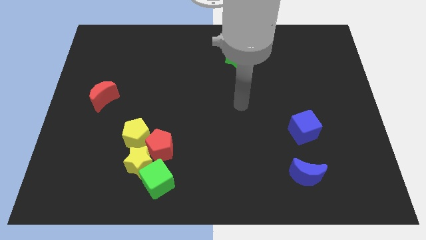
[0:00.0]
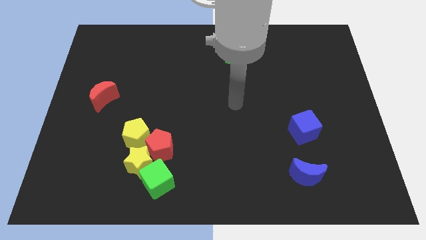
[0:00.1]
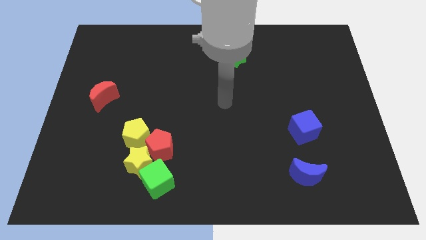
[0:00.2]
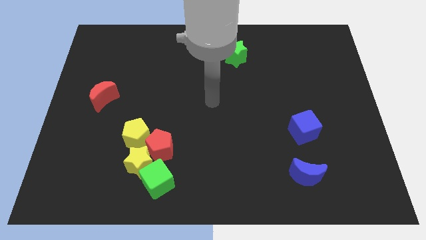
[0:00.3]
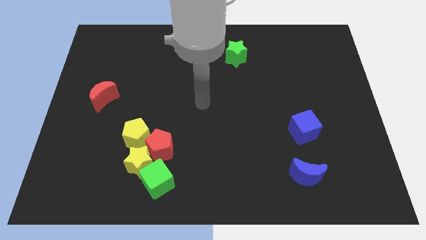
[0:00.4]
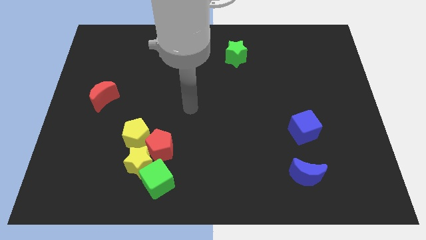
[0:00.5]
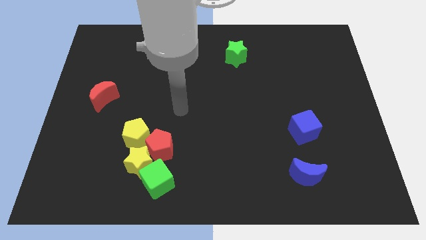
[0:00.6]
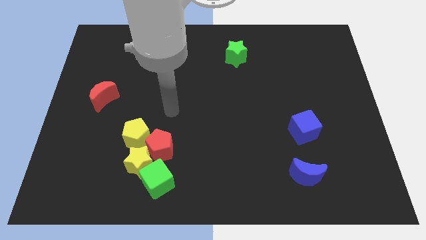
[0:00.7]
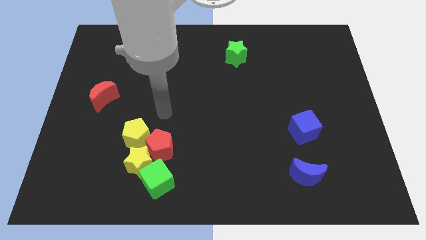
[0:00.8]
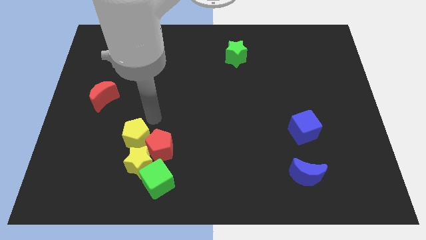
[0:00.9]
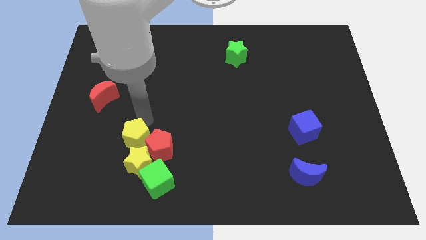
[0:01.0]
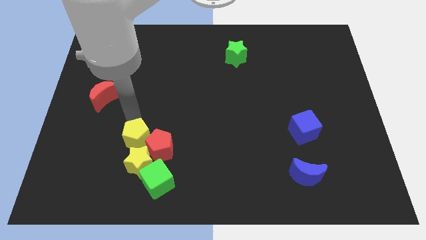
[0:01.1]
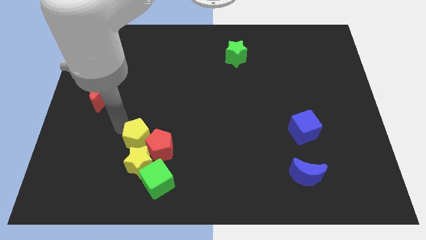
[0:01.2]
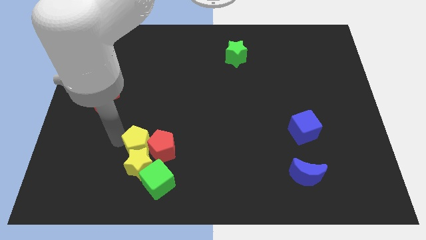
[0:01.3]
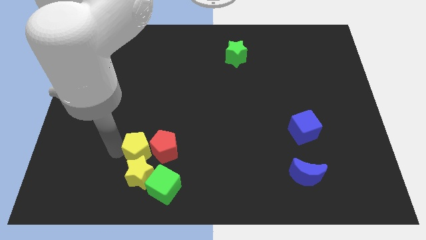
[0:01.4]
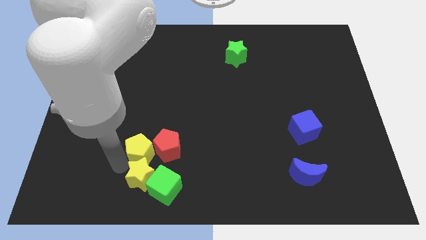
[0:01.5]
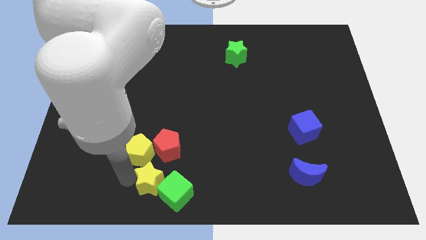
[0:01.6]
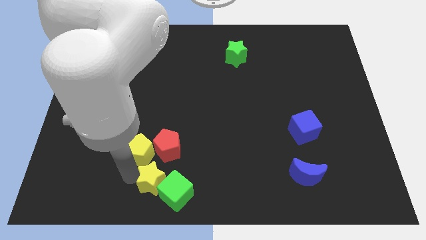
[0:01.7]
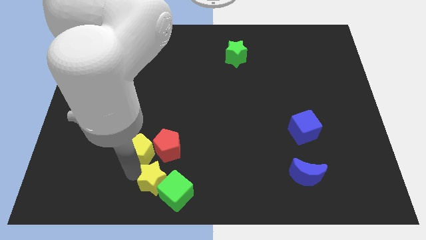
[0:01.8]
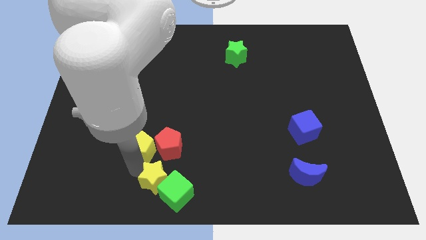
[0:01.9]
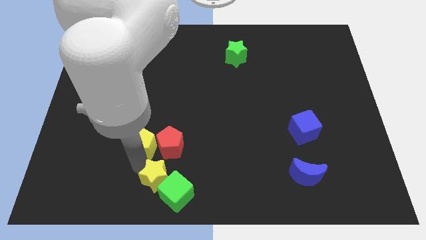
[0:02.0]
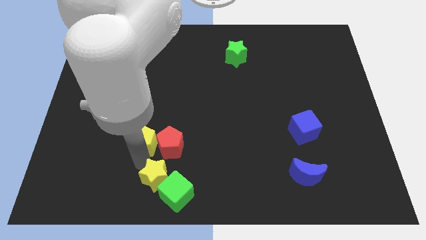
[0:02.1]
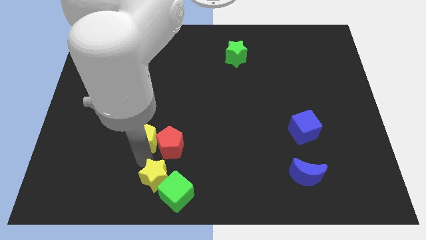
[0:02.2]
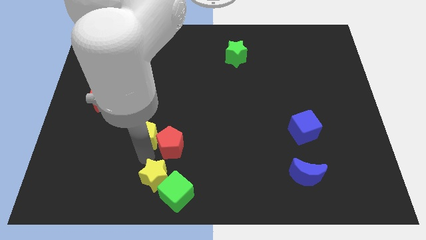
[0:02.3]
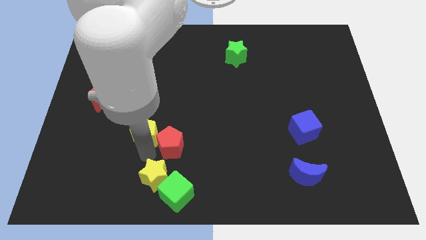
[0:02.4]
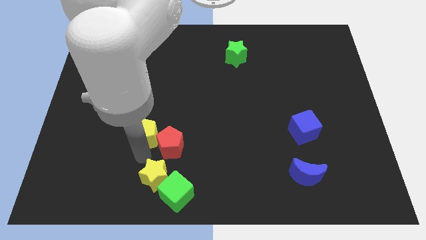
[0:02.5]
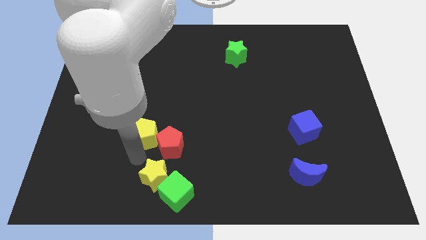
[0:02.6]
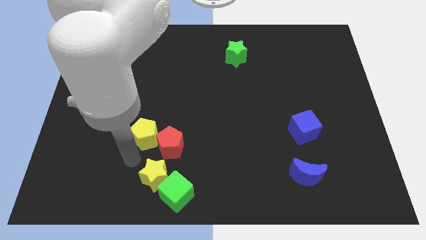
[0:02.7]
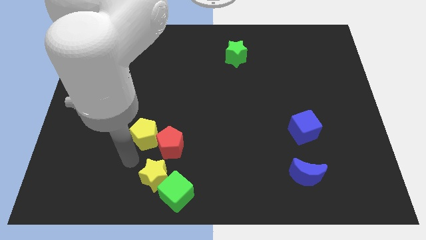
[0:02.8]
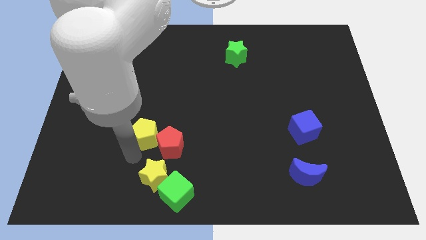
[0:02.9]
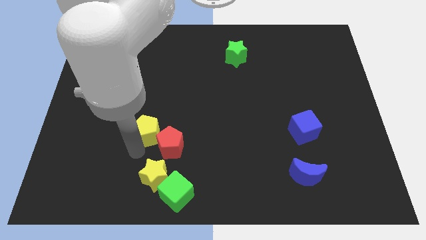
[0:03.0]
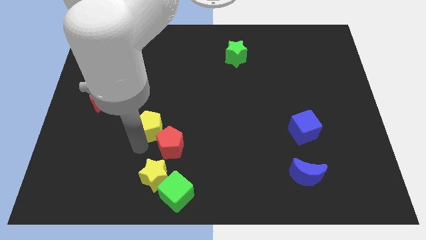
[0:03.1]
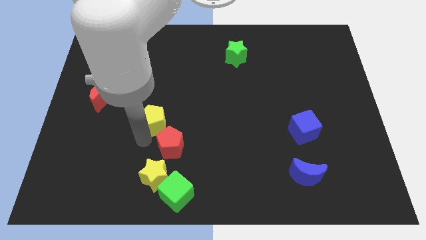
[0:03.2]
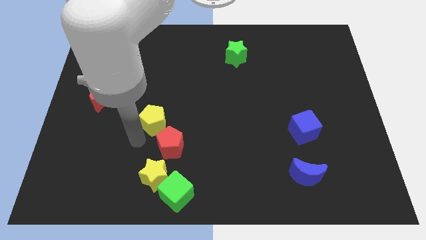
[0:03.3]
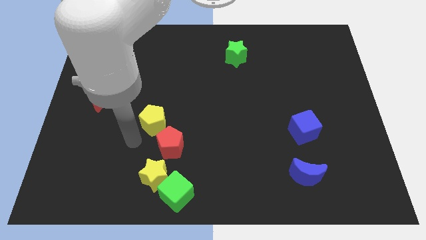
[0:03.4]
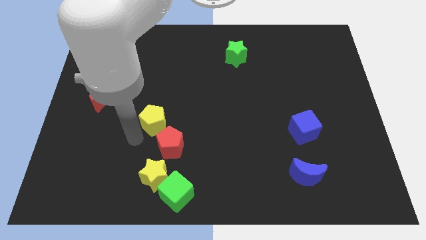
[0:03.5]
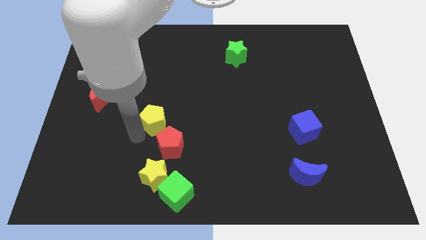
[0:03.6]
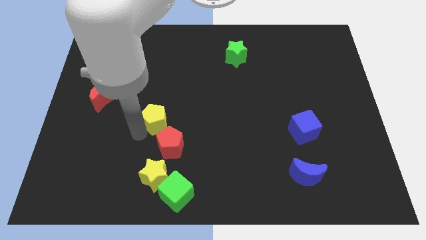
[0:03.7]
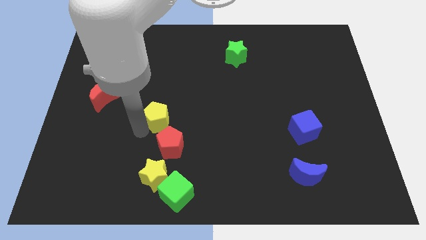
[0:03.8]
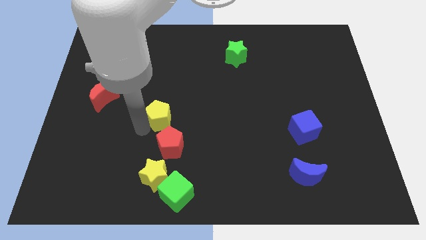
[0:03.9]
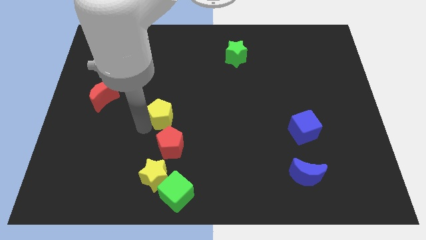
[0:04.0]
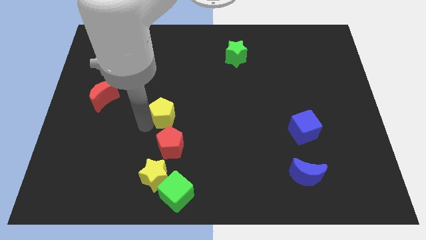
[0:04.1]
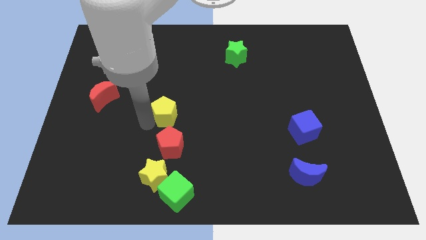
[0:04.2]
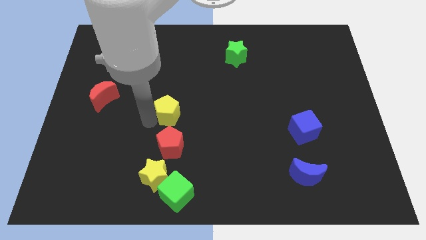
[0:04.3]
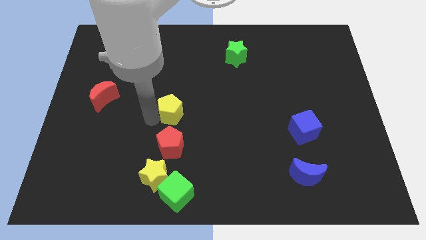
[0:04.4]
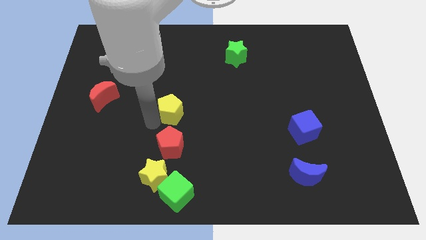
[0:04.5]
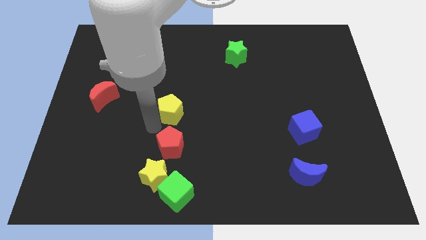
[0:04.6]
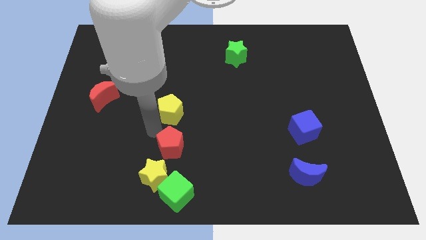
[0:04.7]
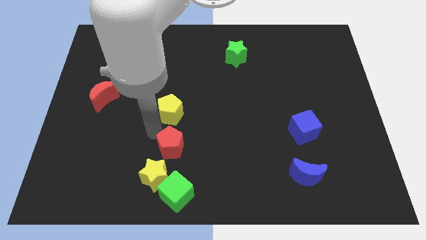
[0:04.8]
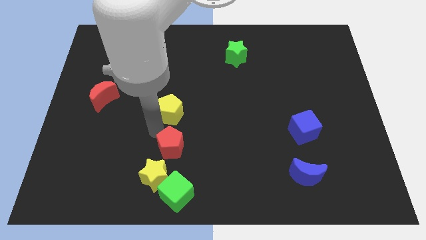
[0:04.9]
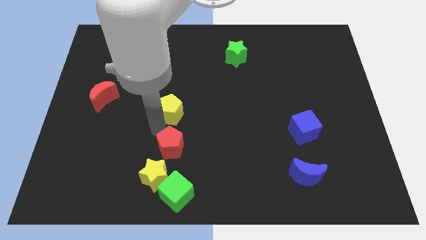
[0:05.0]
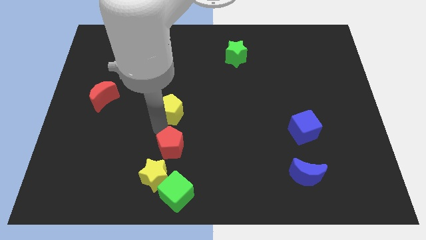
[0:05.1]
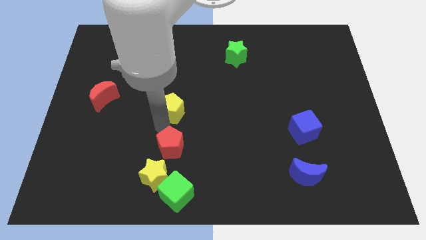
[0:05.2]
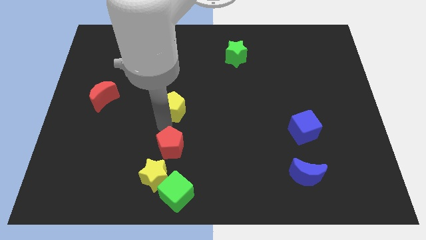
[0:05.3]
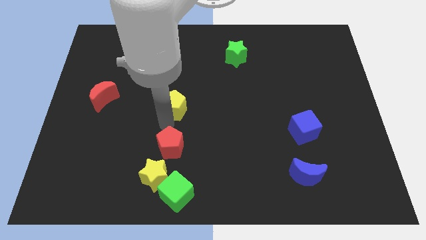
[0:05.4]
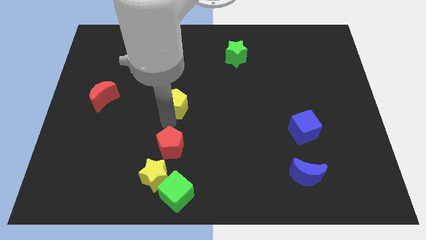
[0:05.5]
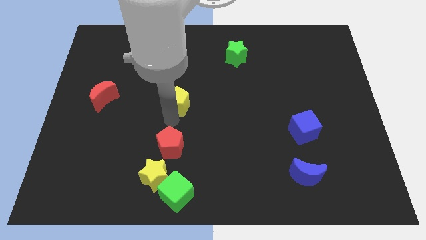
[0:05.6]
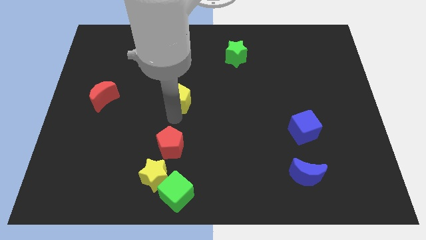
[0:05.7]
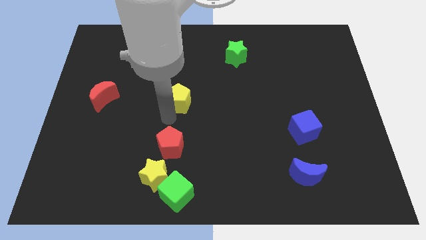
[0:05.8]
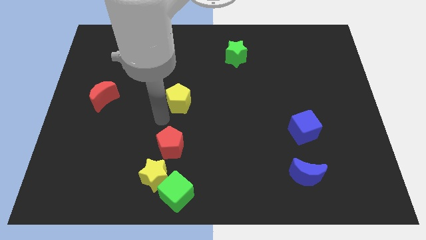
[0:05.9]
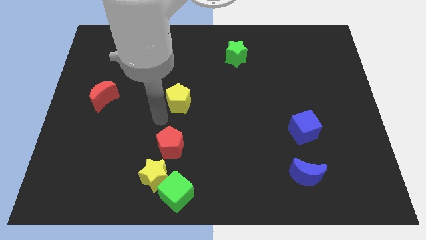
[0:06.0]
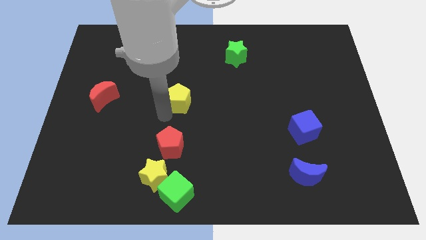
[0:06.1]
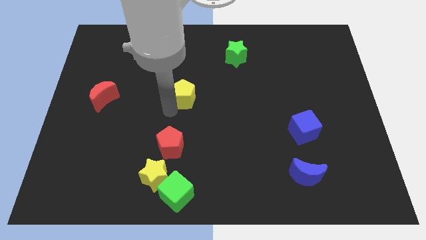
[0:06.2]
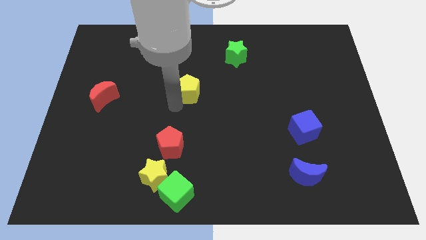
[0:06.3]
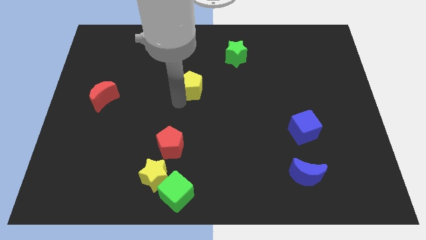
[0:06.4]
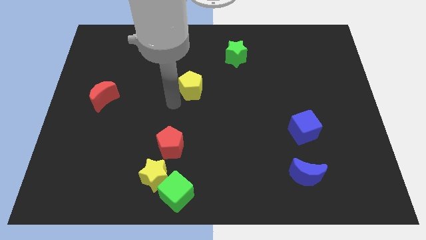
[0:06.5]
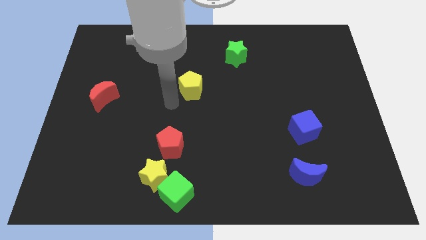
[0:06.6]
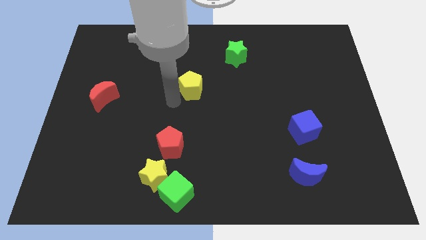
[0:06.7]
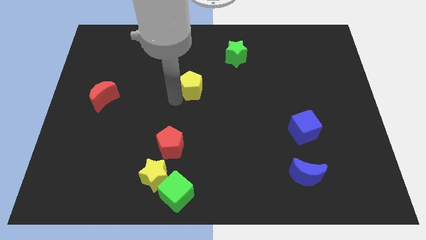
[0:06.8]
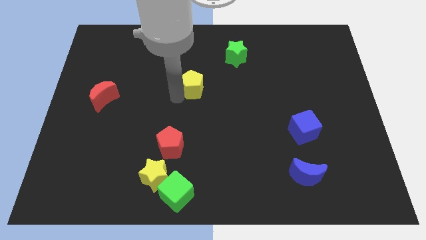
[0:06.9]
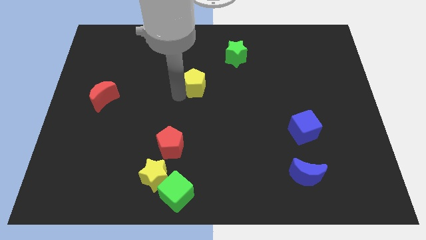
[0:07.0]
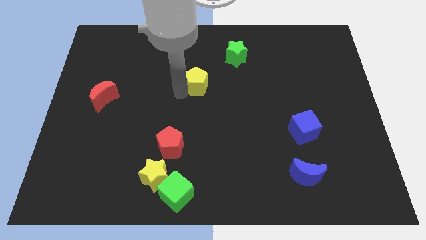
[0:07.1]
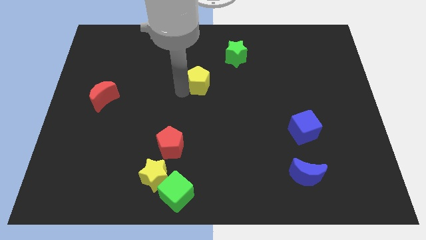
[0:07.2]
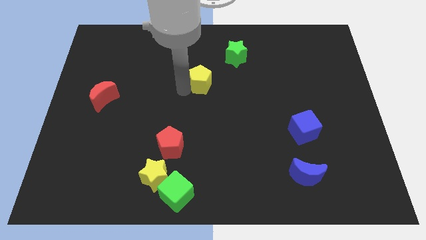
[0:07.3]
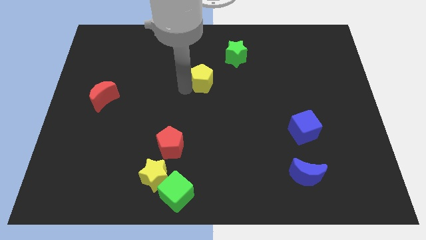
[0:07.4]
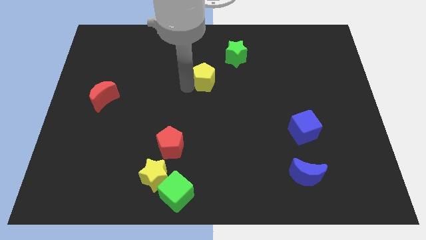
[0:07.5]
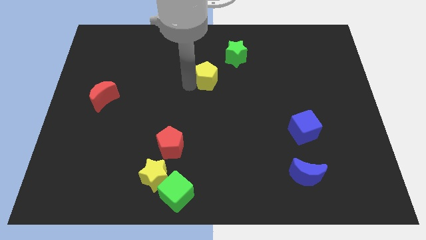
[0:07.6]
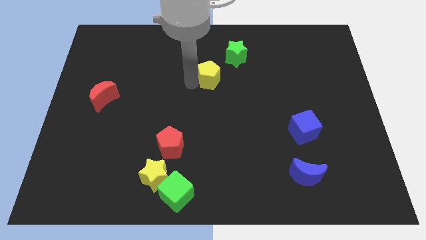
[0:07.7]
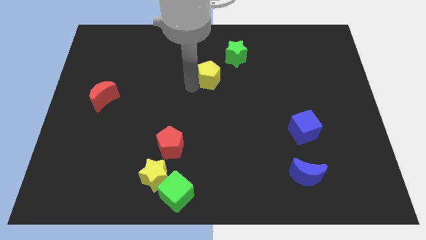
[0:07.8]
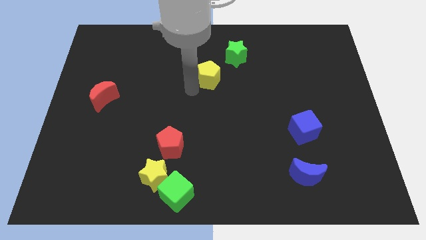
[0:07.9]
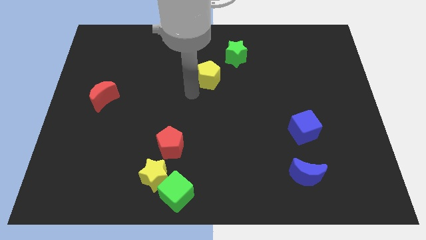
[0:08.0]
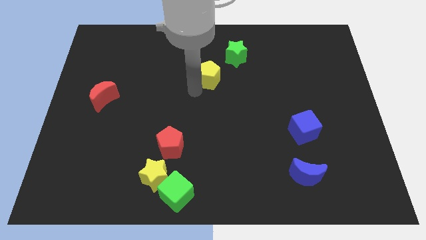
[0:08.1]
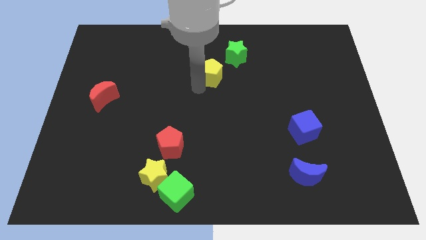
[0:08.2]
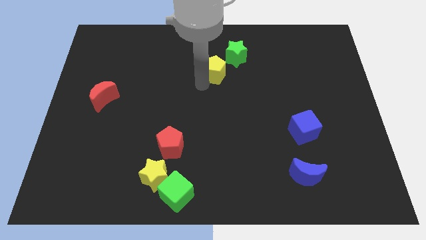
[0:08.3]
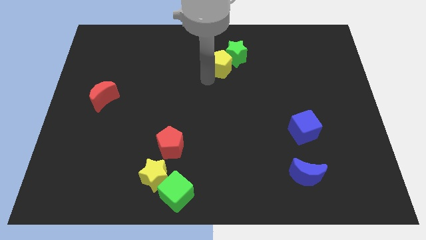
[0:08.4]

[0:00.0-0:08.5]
push the yellow pentagon next to the green star
